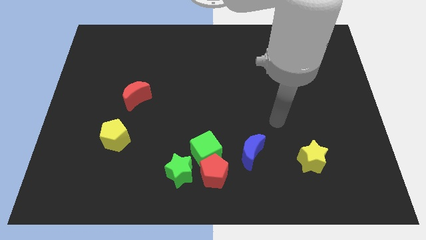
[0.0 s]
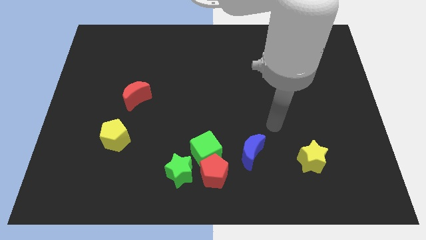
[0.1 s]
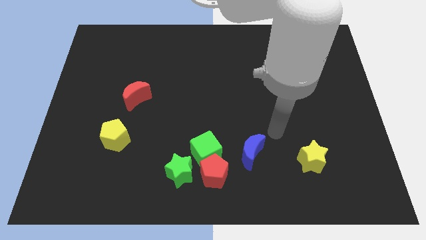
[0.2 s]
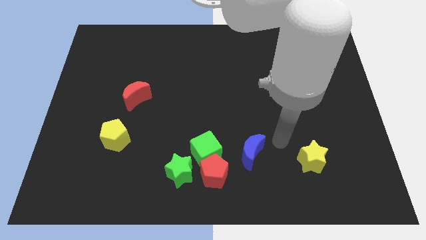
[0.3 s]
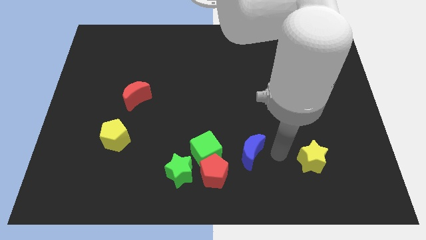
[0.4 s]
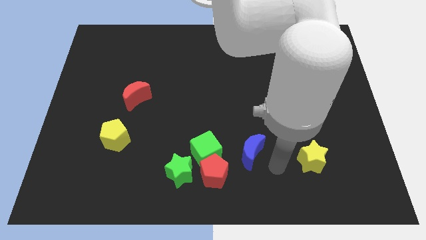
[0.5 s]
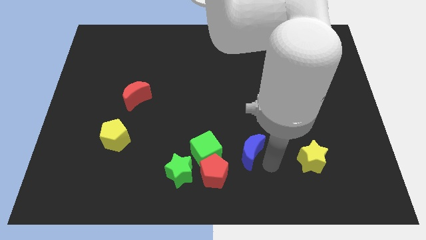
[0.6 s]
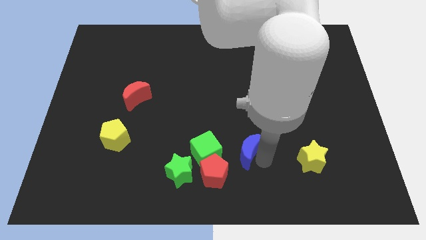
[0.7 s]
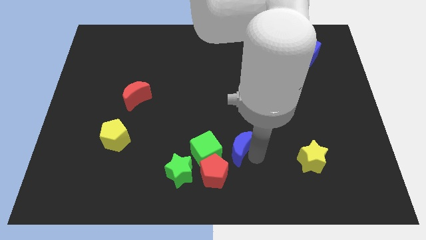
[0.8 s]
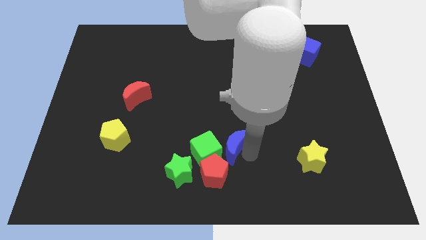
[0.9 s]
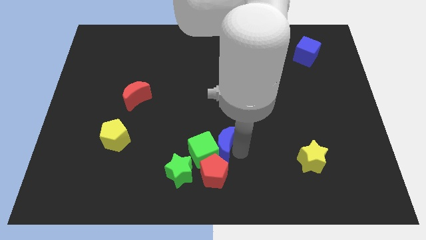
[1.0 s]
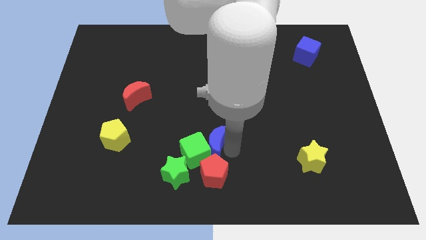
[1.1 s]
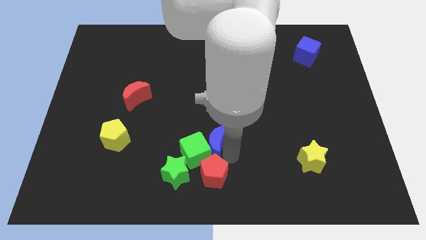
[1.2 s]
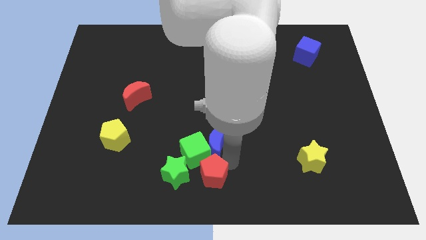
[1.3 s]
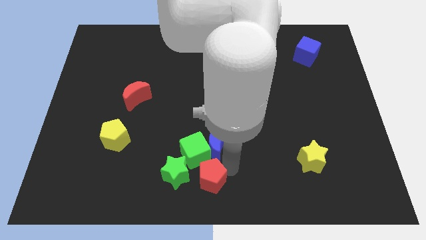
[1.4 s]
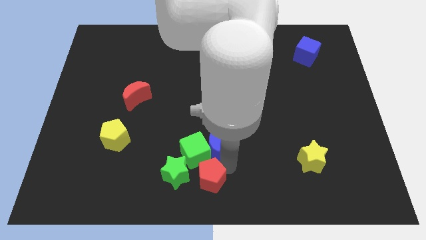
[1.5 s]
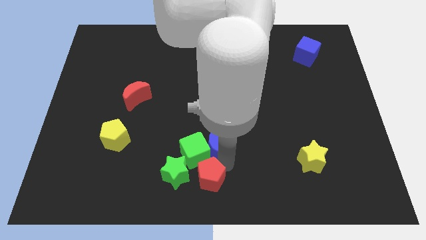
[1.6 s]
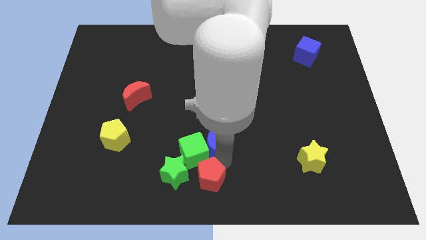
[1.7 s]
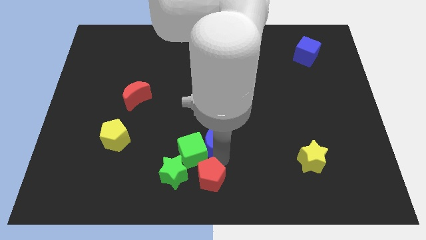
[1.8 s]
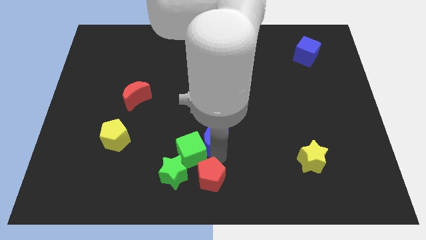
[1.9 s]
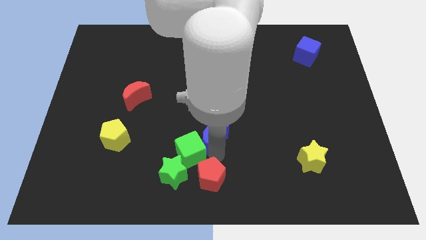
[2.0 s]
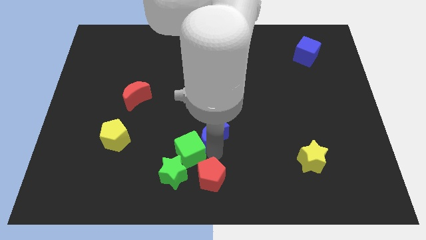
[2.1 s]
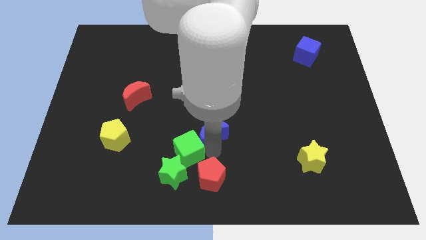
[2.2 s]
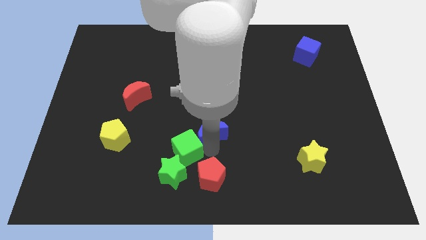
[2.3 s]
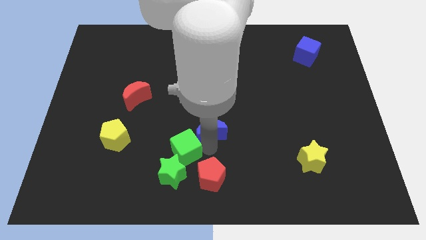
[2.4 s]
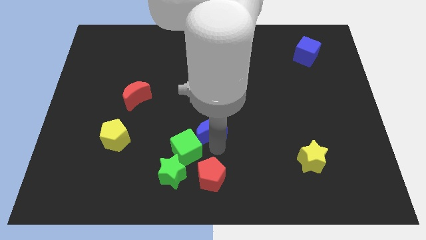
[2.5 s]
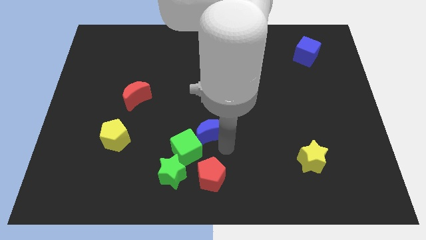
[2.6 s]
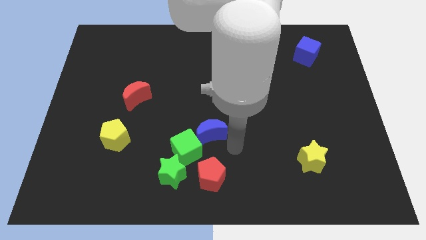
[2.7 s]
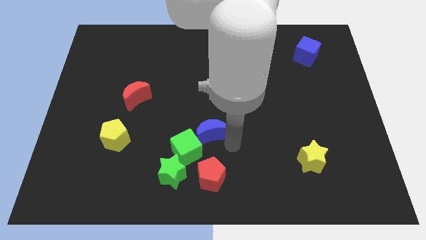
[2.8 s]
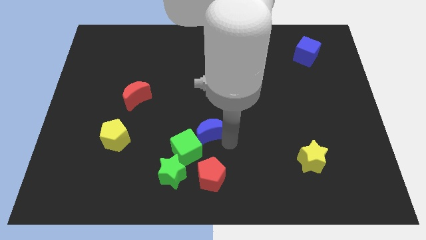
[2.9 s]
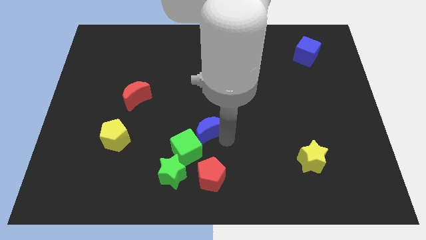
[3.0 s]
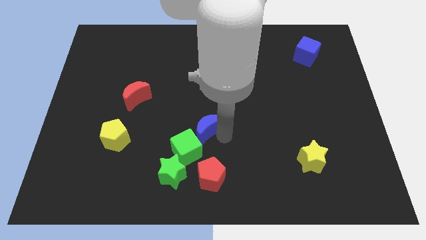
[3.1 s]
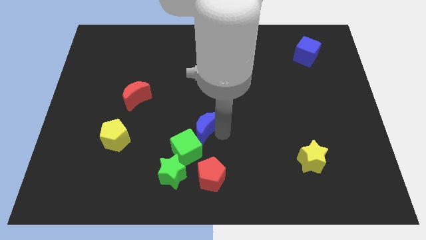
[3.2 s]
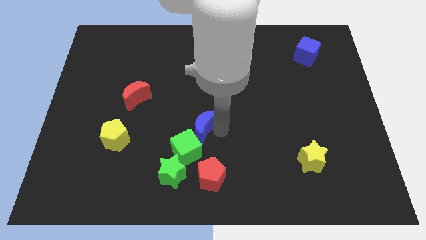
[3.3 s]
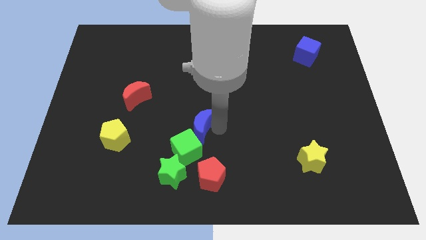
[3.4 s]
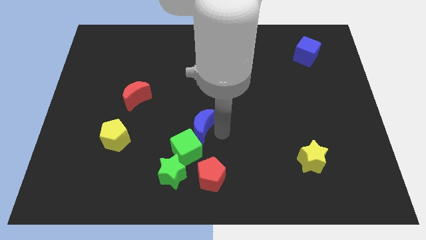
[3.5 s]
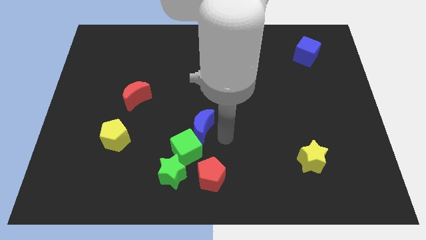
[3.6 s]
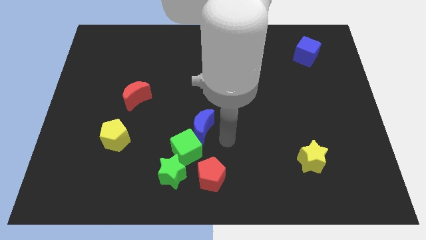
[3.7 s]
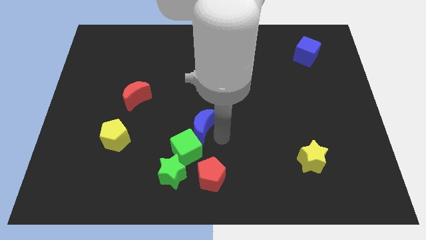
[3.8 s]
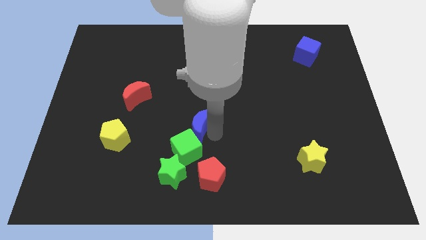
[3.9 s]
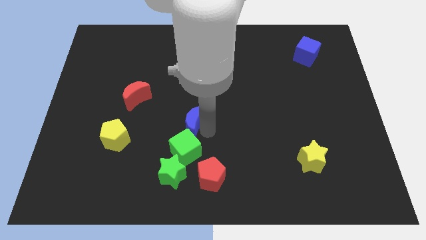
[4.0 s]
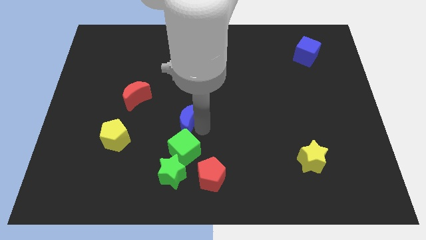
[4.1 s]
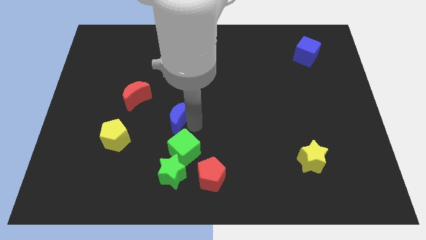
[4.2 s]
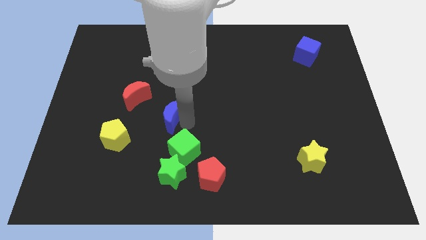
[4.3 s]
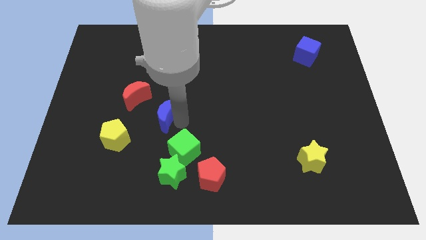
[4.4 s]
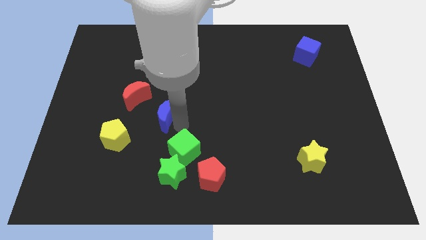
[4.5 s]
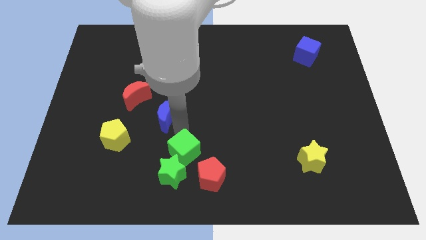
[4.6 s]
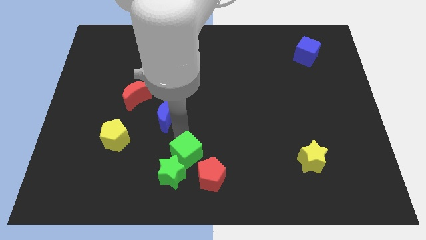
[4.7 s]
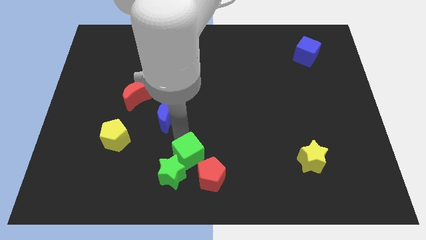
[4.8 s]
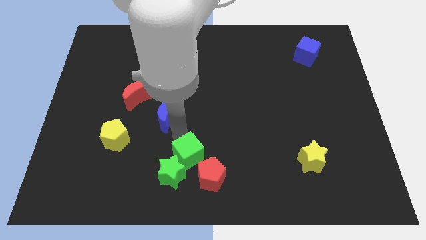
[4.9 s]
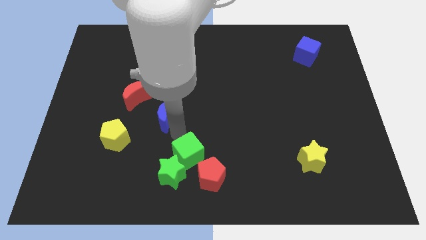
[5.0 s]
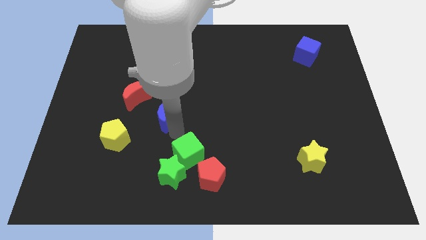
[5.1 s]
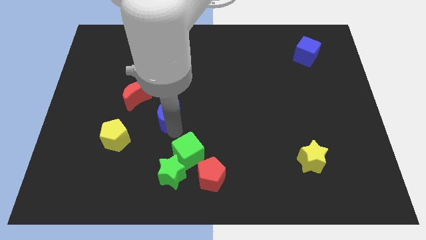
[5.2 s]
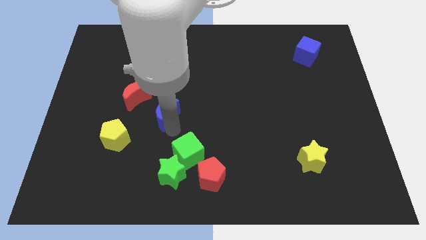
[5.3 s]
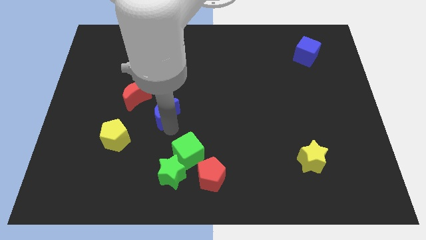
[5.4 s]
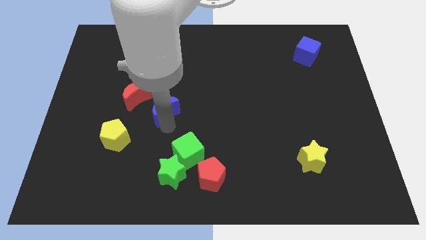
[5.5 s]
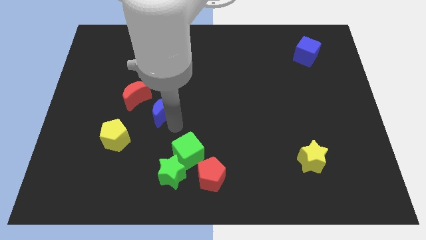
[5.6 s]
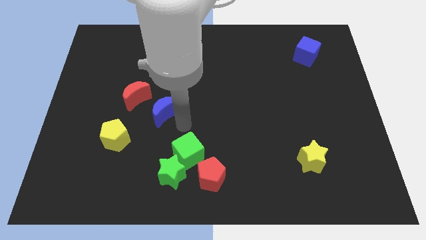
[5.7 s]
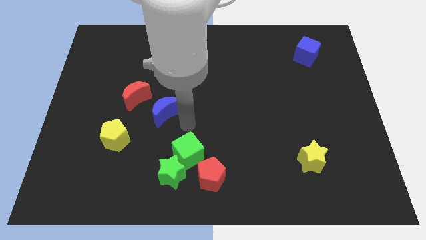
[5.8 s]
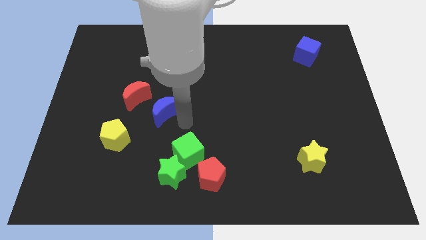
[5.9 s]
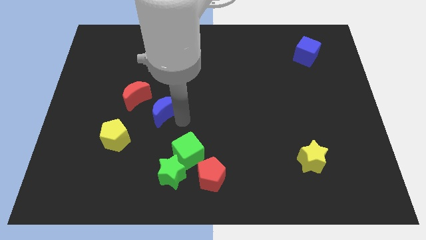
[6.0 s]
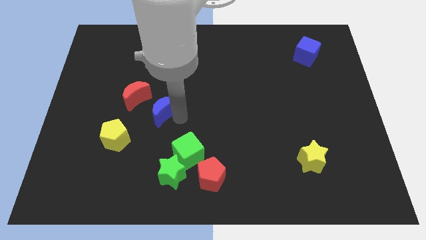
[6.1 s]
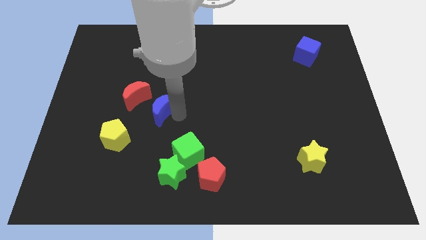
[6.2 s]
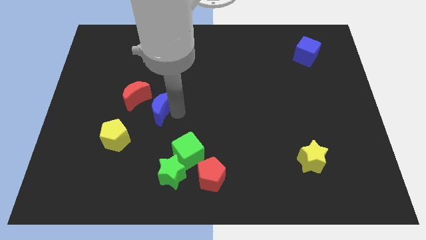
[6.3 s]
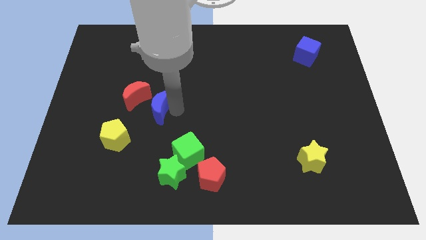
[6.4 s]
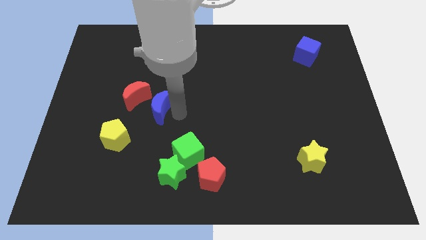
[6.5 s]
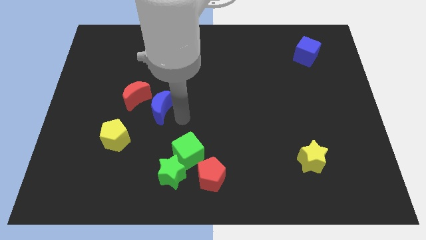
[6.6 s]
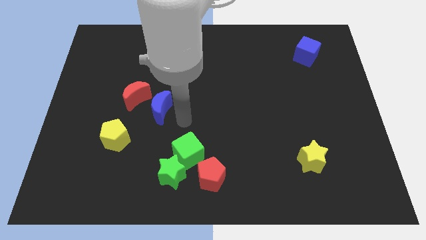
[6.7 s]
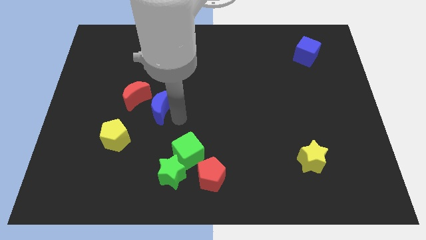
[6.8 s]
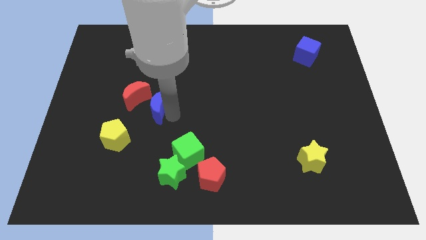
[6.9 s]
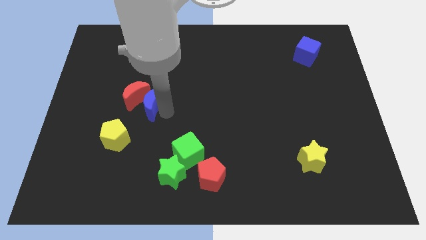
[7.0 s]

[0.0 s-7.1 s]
push the blue moon next to the red moon

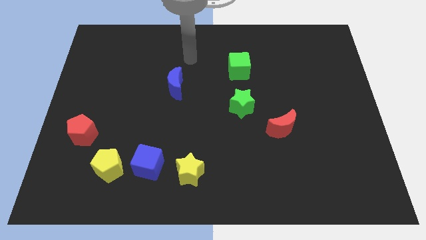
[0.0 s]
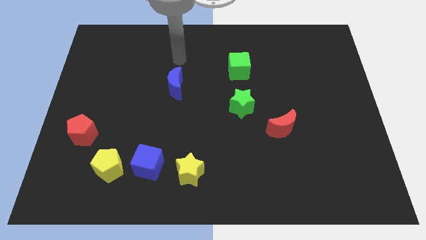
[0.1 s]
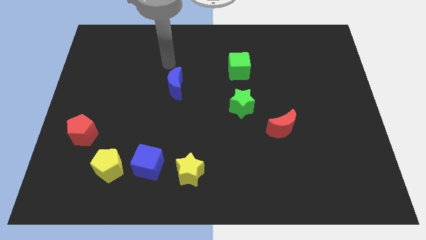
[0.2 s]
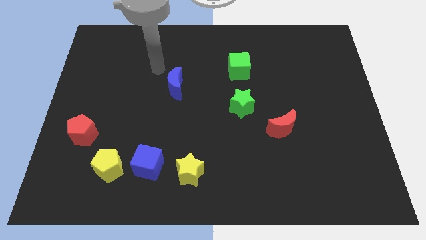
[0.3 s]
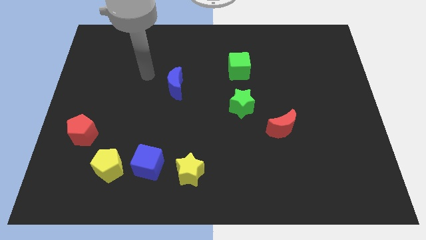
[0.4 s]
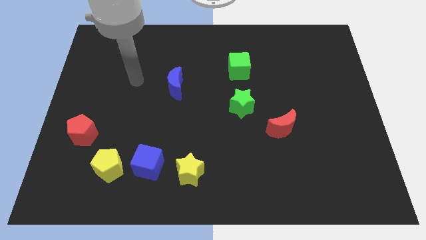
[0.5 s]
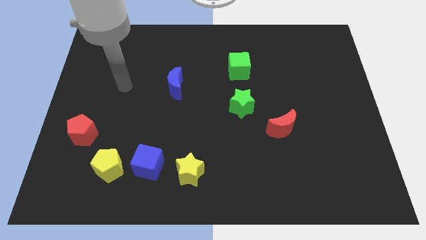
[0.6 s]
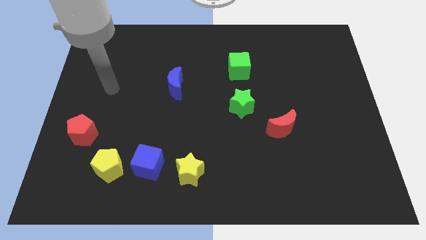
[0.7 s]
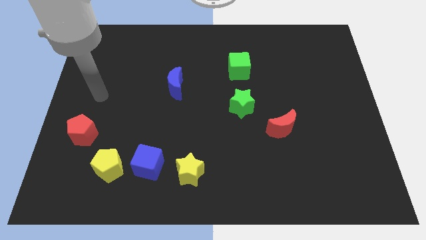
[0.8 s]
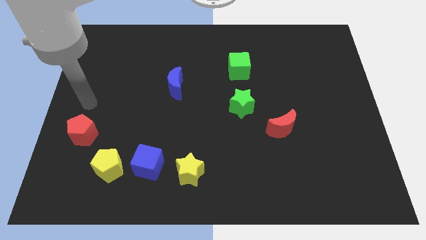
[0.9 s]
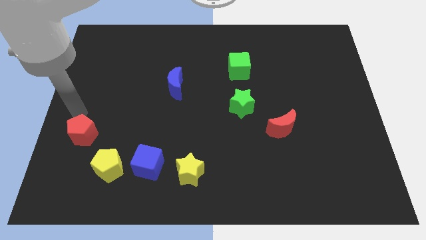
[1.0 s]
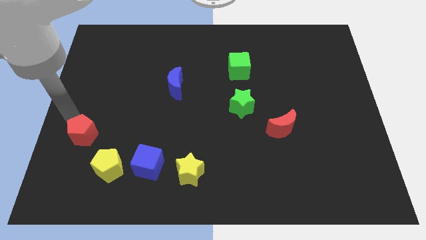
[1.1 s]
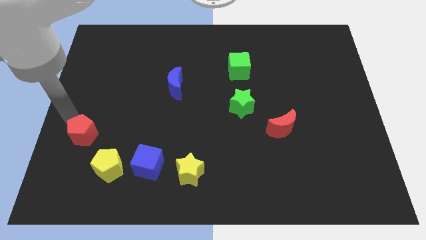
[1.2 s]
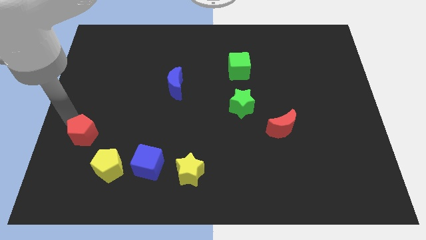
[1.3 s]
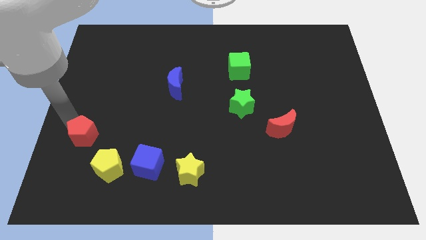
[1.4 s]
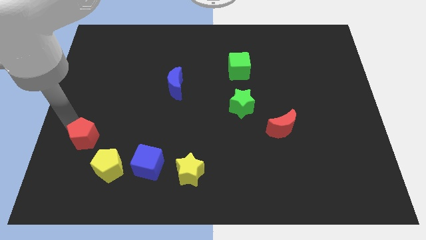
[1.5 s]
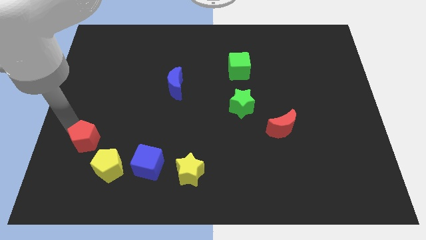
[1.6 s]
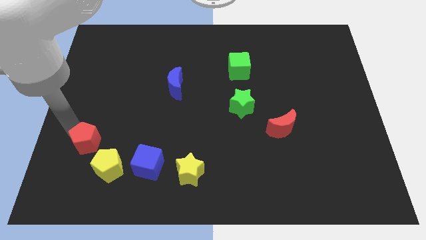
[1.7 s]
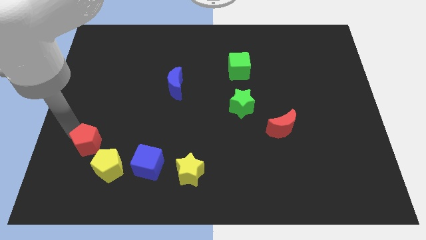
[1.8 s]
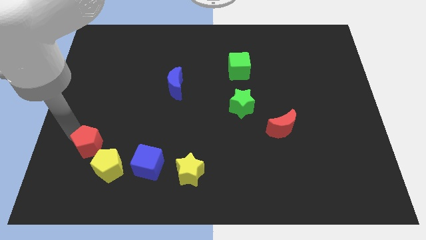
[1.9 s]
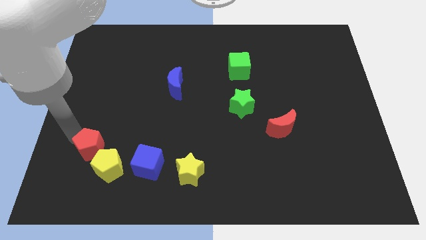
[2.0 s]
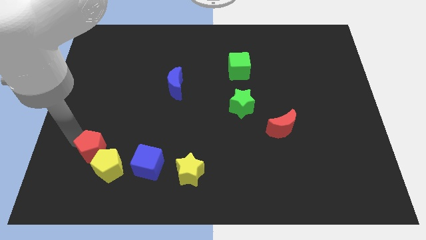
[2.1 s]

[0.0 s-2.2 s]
put the red pentagon to the yellow pentagon
